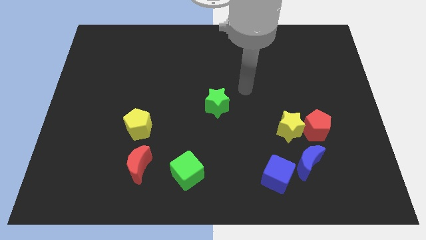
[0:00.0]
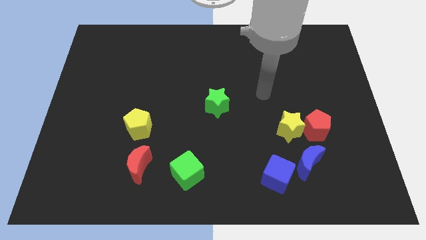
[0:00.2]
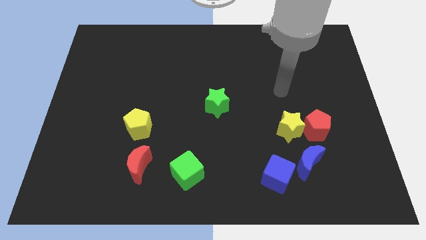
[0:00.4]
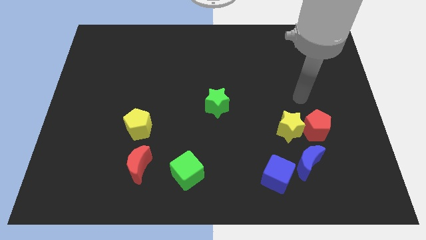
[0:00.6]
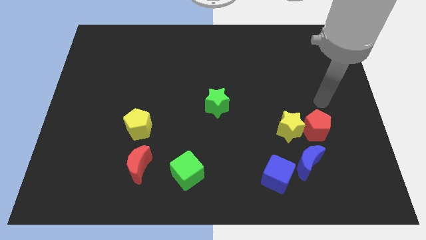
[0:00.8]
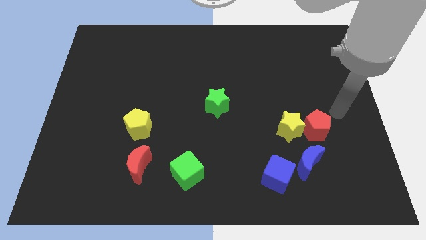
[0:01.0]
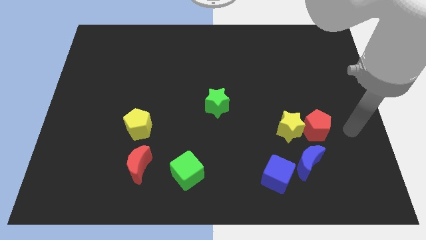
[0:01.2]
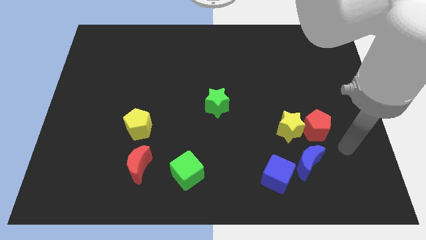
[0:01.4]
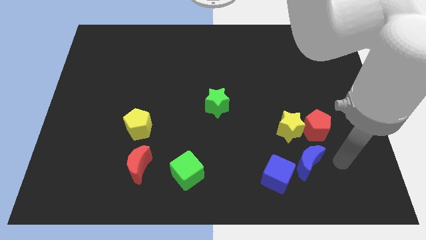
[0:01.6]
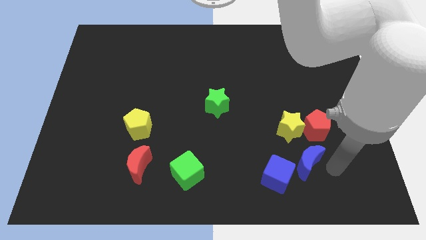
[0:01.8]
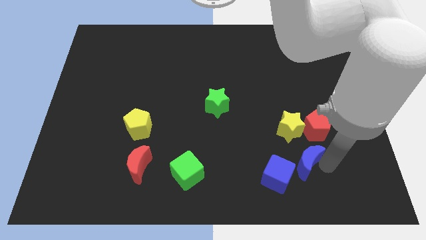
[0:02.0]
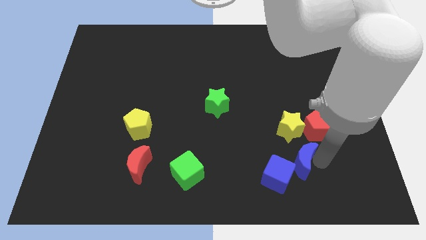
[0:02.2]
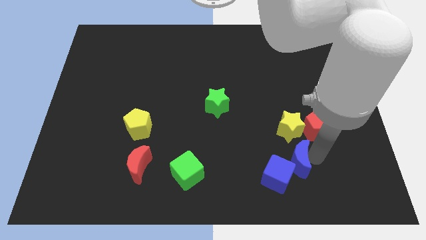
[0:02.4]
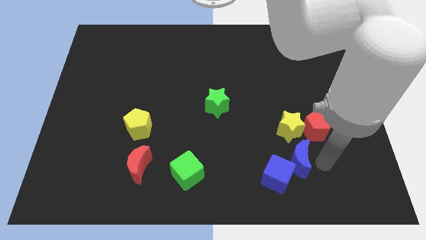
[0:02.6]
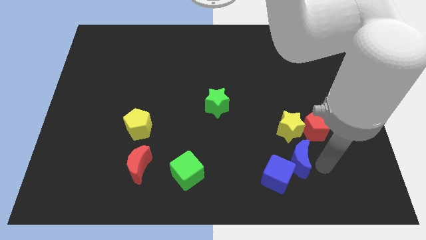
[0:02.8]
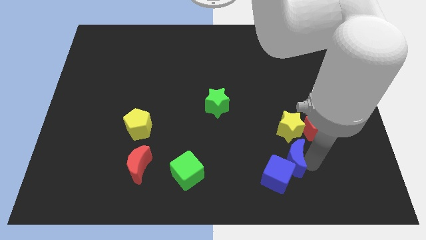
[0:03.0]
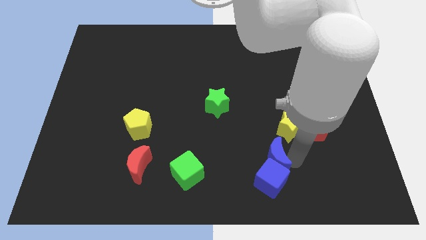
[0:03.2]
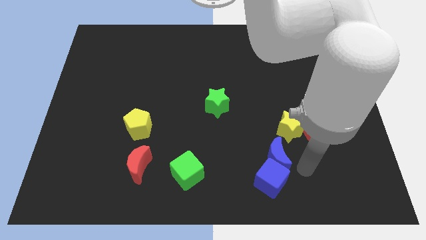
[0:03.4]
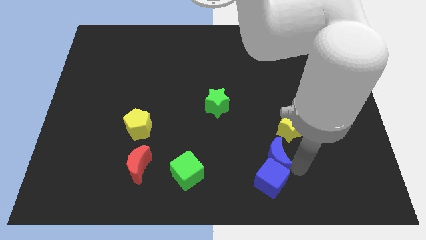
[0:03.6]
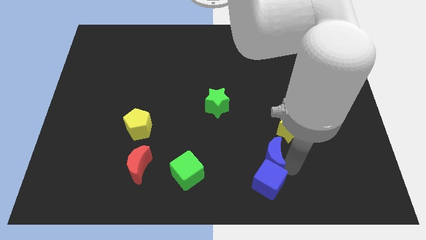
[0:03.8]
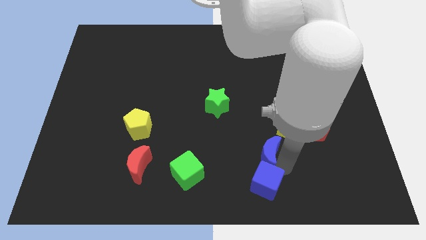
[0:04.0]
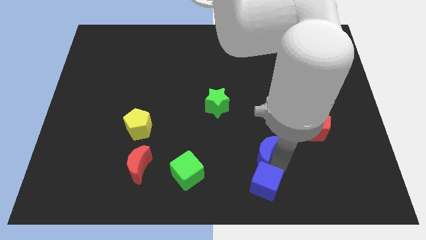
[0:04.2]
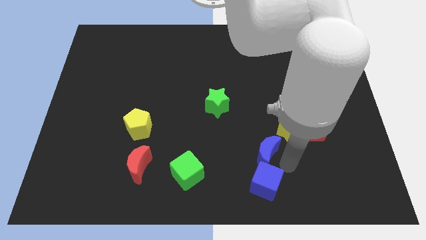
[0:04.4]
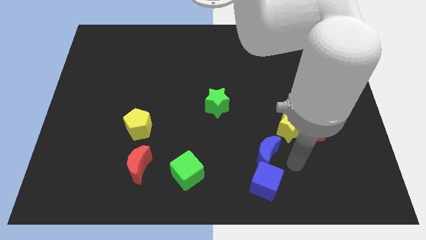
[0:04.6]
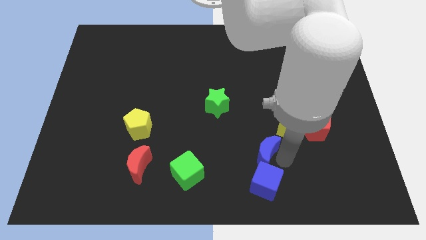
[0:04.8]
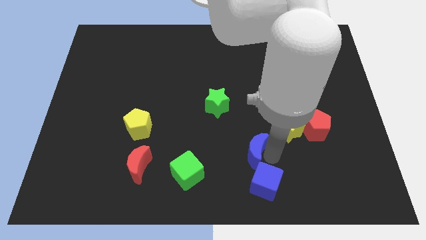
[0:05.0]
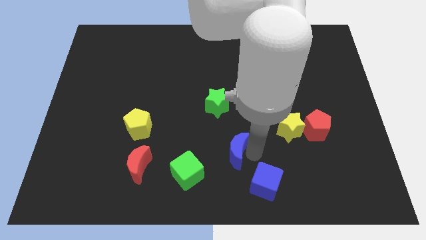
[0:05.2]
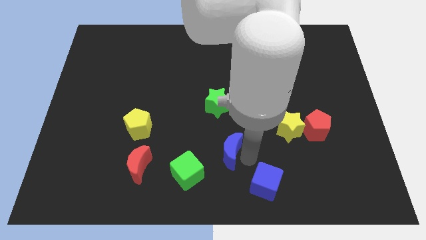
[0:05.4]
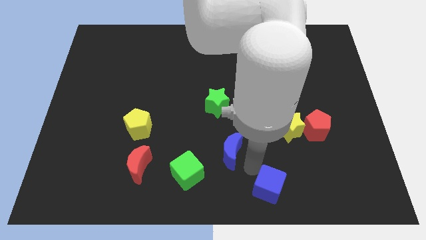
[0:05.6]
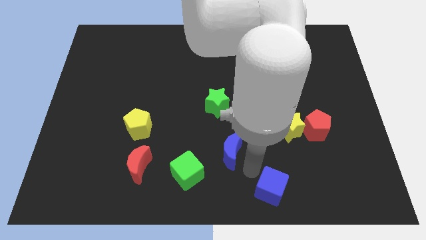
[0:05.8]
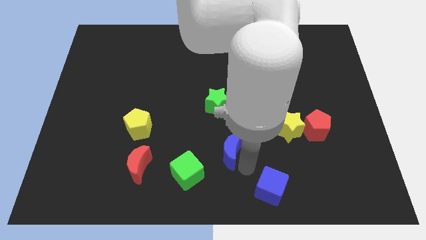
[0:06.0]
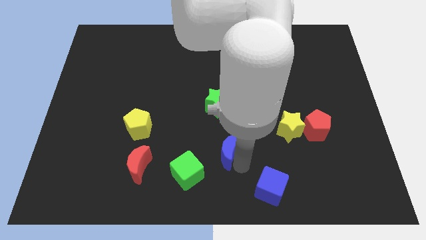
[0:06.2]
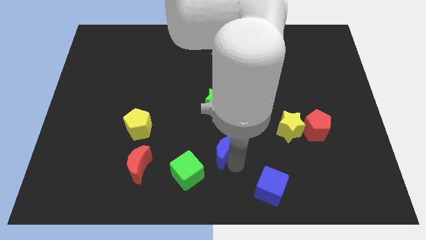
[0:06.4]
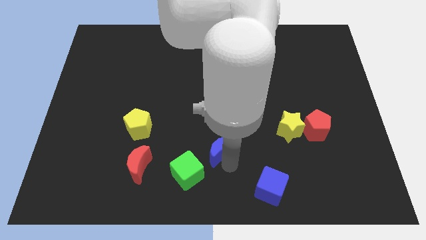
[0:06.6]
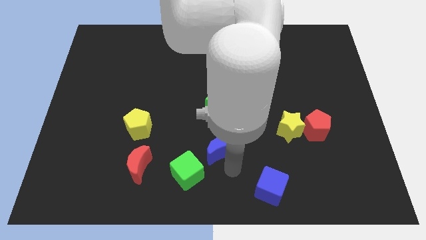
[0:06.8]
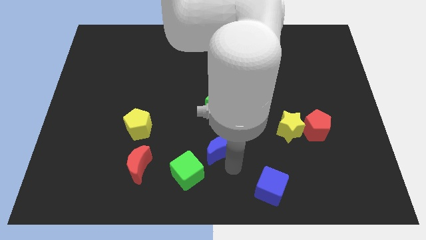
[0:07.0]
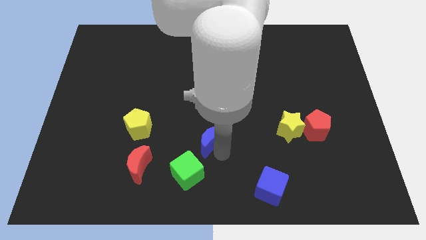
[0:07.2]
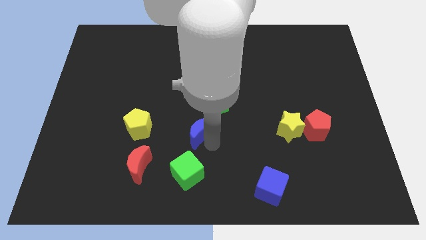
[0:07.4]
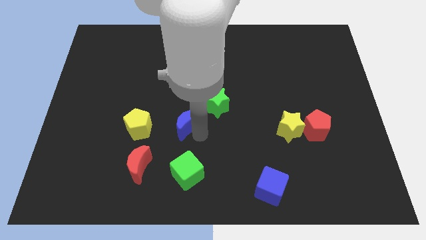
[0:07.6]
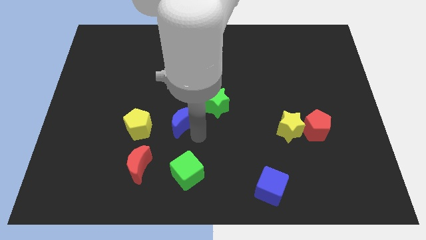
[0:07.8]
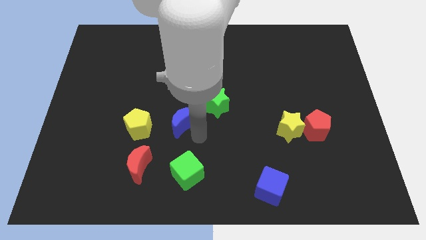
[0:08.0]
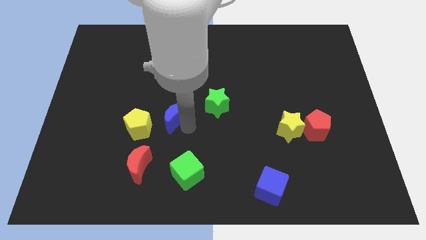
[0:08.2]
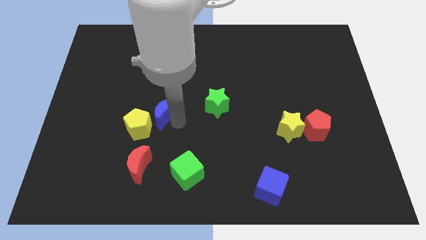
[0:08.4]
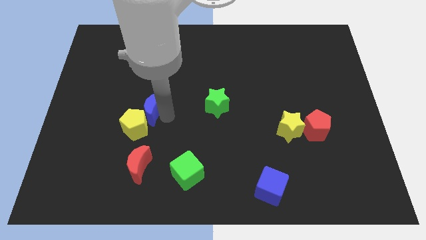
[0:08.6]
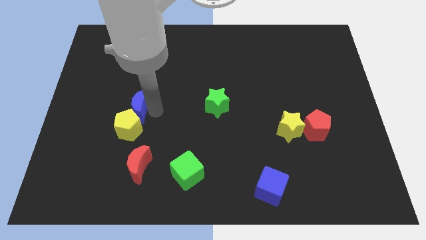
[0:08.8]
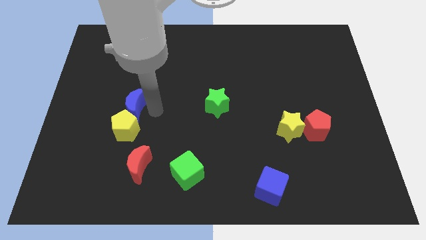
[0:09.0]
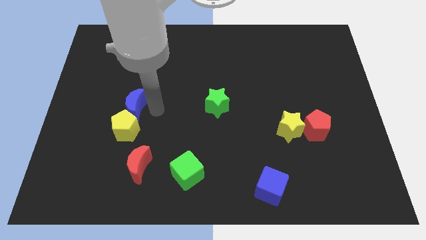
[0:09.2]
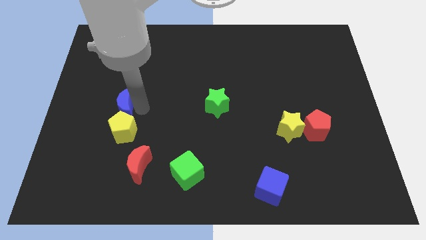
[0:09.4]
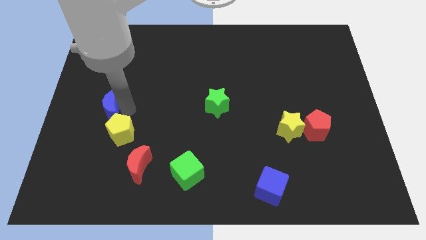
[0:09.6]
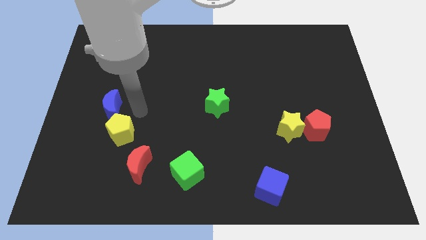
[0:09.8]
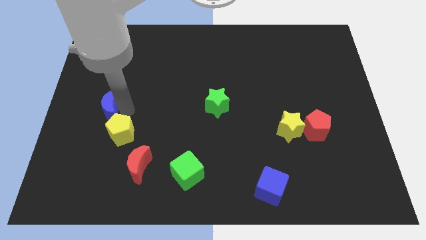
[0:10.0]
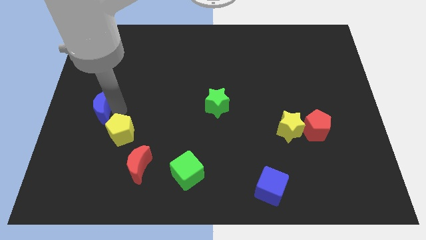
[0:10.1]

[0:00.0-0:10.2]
push the blue moon to the center left

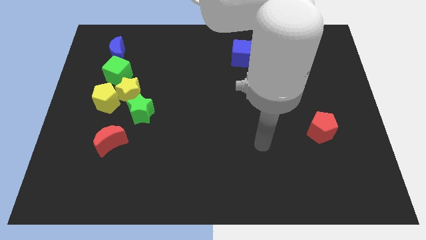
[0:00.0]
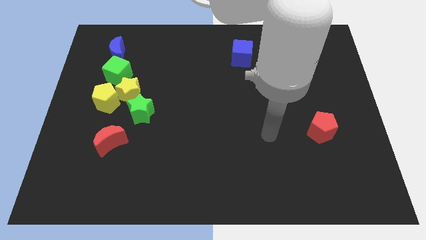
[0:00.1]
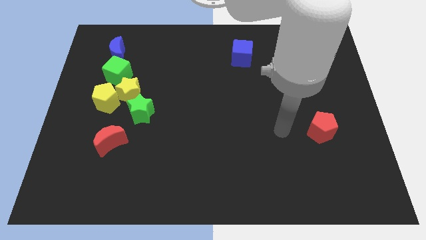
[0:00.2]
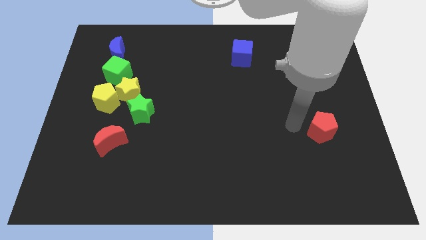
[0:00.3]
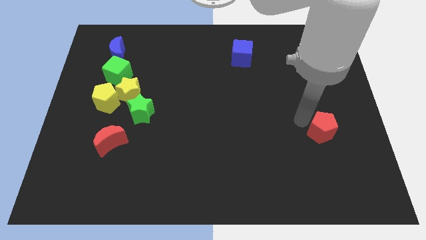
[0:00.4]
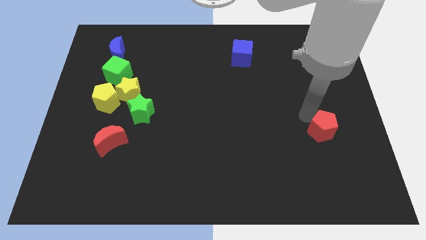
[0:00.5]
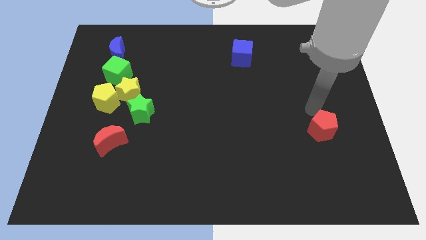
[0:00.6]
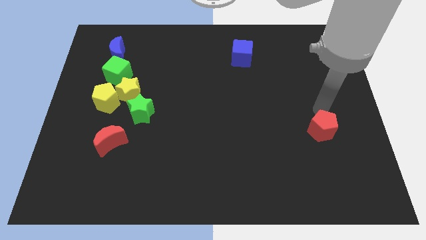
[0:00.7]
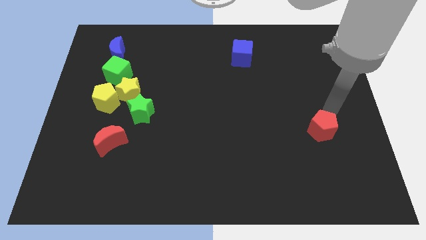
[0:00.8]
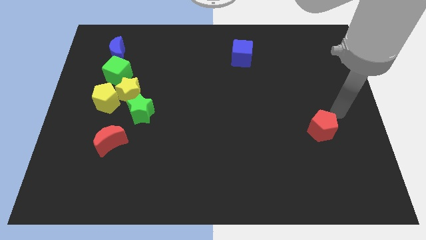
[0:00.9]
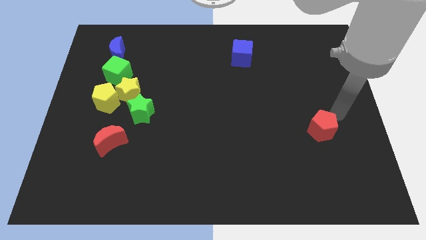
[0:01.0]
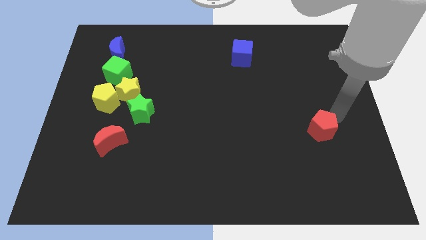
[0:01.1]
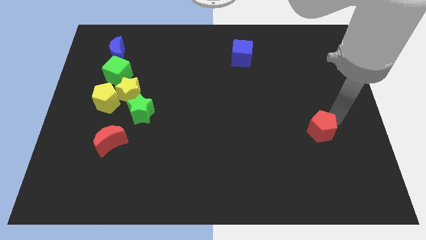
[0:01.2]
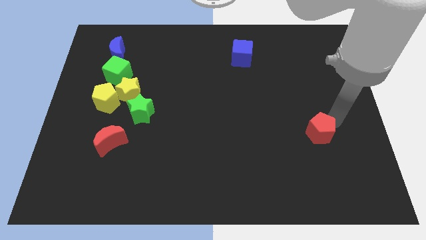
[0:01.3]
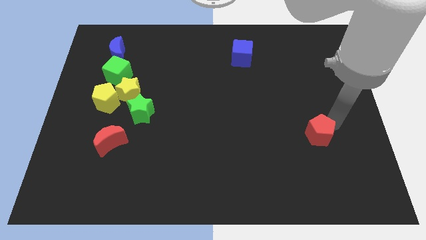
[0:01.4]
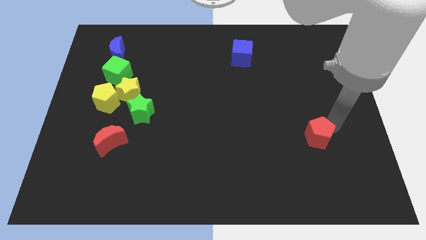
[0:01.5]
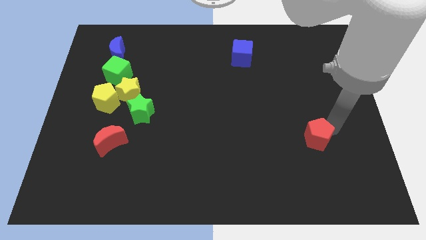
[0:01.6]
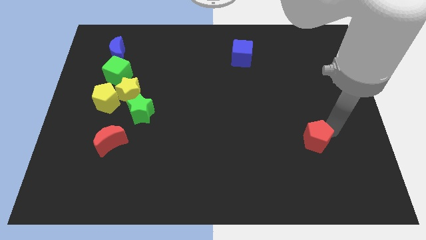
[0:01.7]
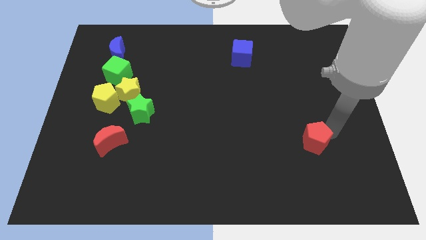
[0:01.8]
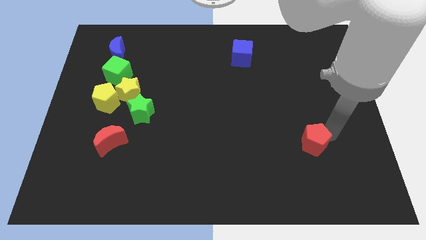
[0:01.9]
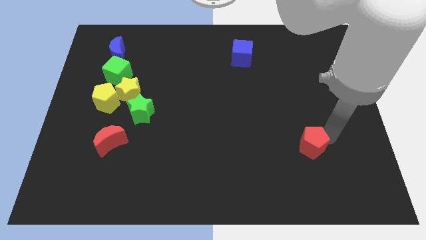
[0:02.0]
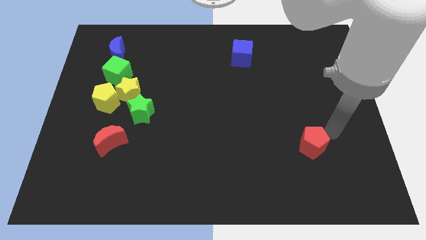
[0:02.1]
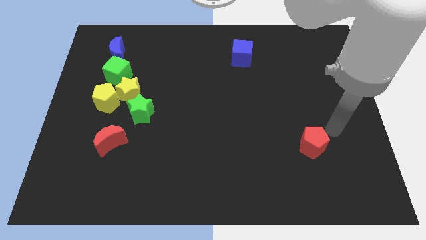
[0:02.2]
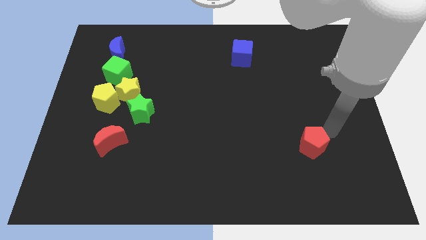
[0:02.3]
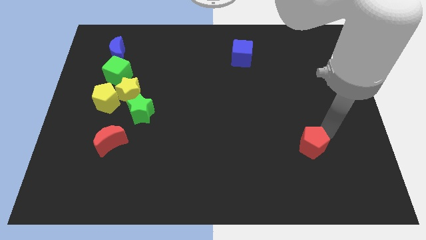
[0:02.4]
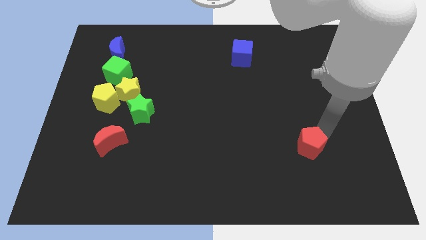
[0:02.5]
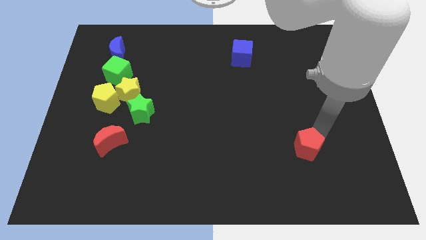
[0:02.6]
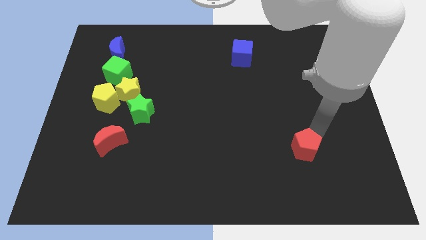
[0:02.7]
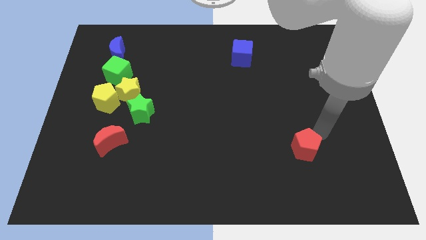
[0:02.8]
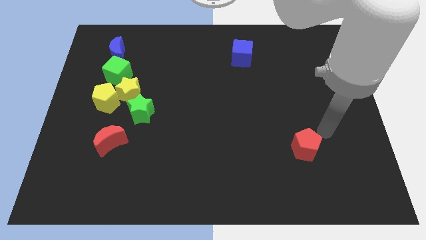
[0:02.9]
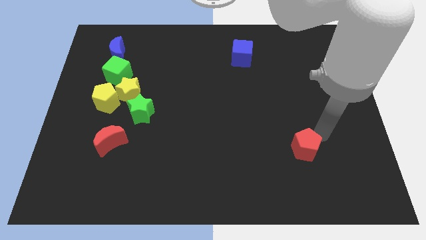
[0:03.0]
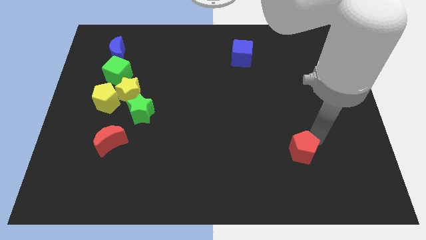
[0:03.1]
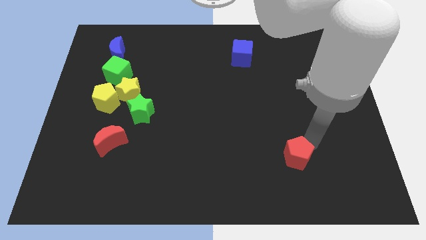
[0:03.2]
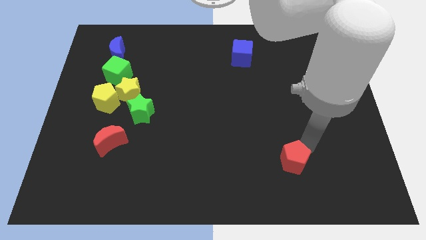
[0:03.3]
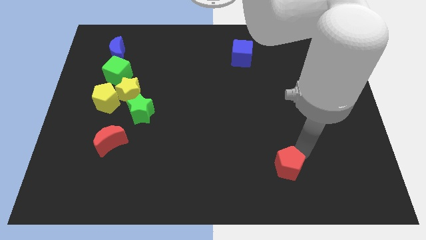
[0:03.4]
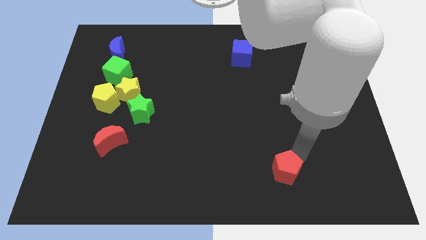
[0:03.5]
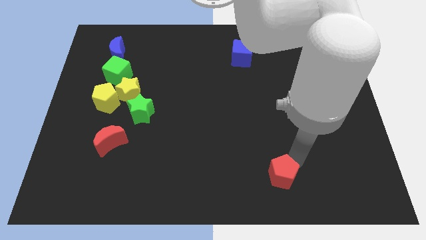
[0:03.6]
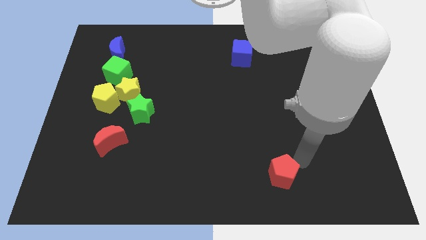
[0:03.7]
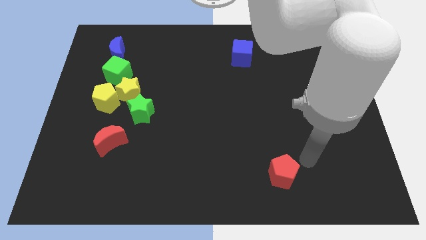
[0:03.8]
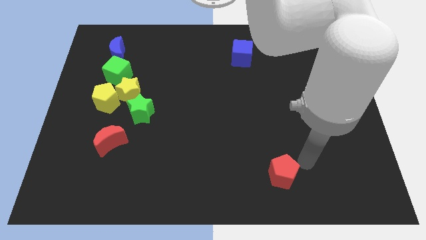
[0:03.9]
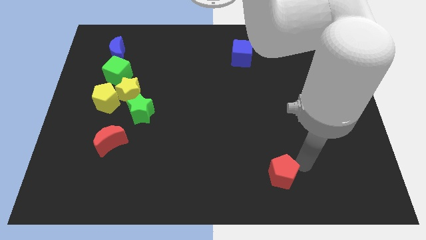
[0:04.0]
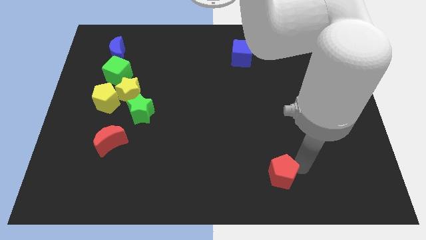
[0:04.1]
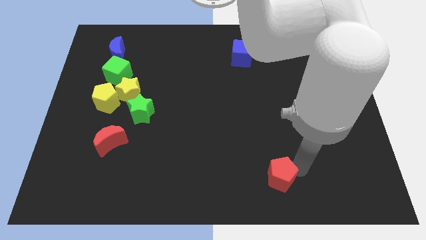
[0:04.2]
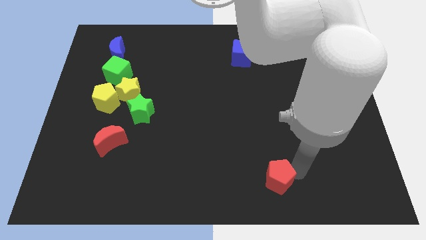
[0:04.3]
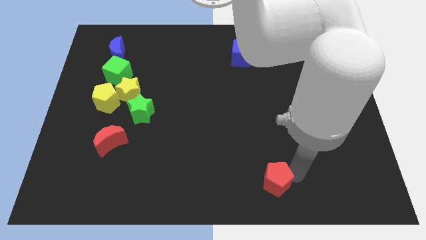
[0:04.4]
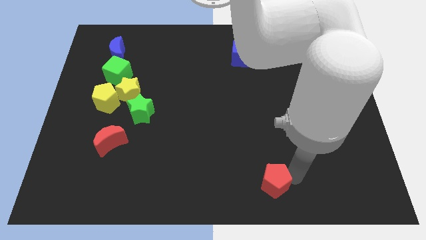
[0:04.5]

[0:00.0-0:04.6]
push the red pentagon to the bottom
